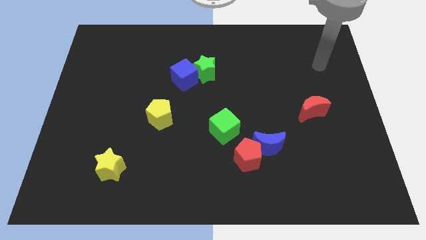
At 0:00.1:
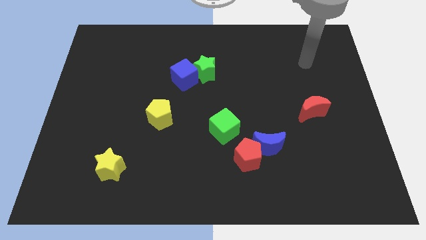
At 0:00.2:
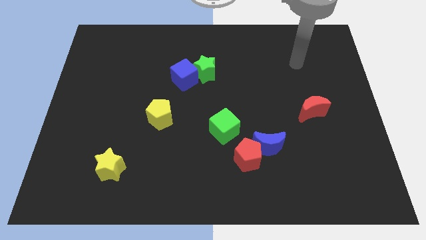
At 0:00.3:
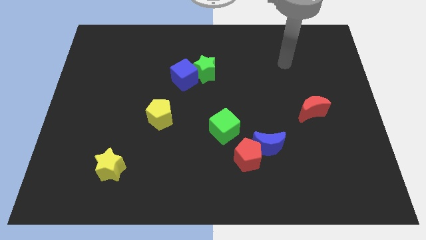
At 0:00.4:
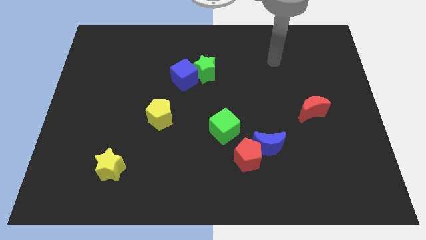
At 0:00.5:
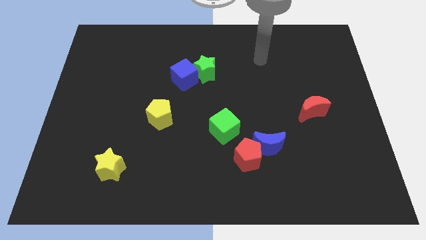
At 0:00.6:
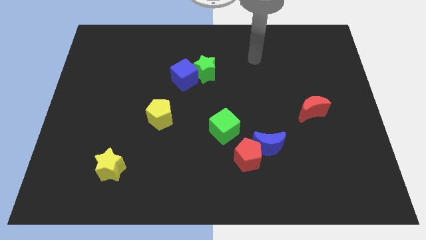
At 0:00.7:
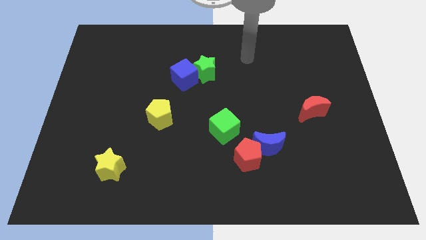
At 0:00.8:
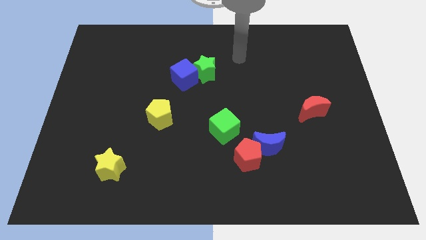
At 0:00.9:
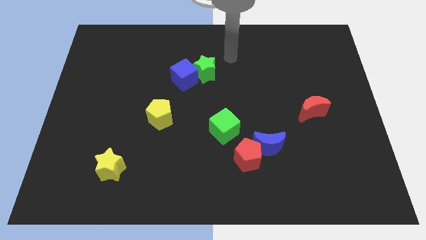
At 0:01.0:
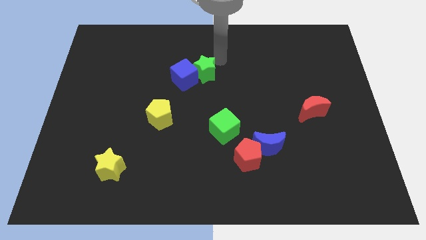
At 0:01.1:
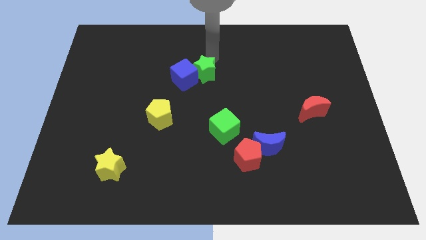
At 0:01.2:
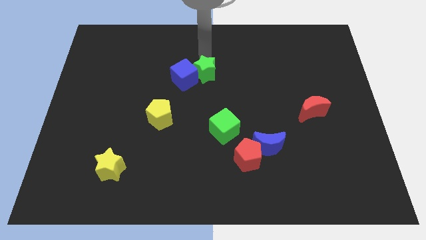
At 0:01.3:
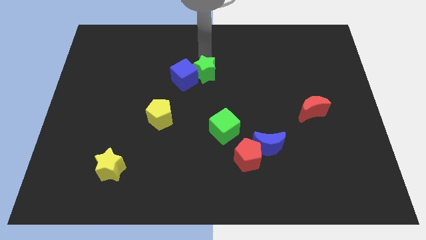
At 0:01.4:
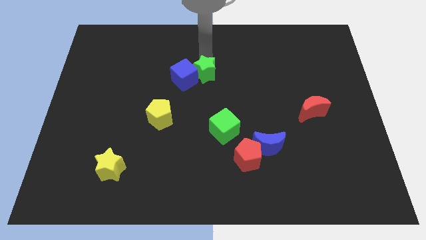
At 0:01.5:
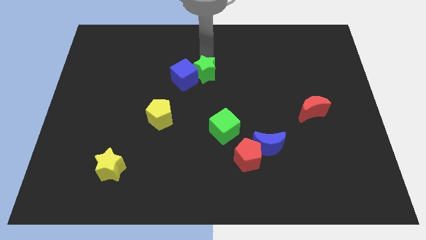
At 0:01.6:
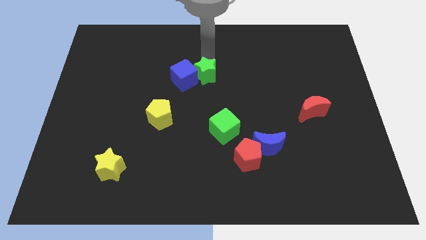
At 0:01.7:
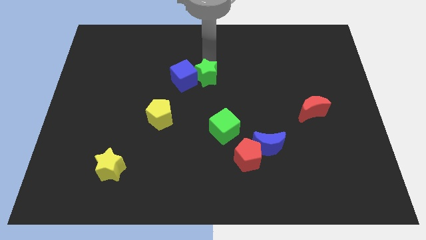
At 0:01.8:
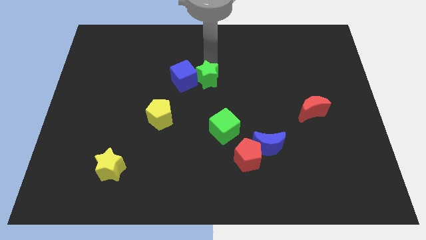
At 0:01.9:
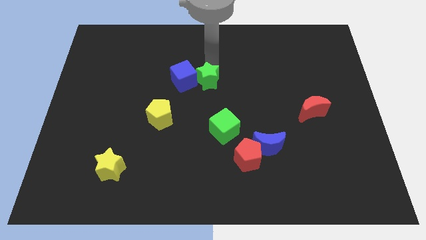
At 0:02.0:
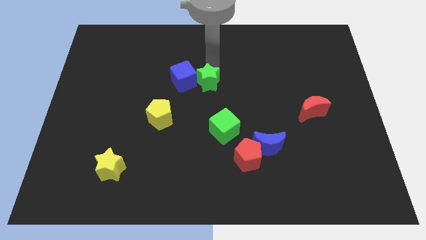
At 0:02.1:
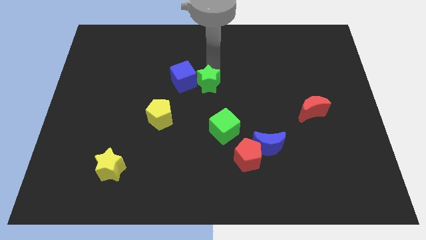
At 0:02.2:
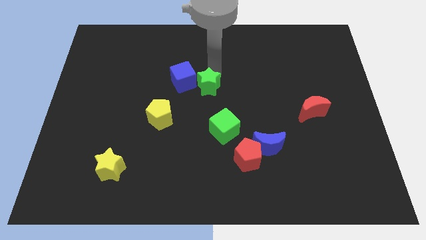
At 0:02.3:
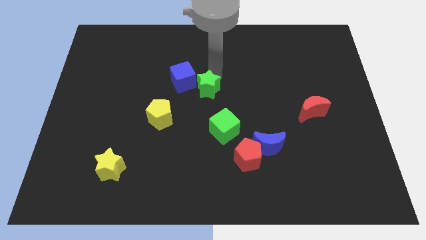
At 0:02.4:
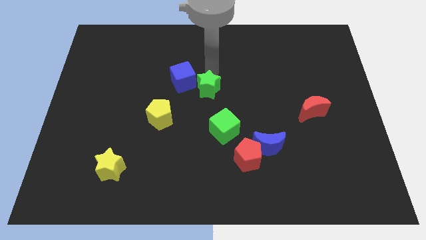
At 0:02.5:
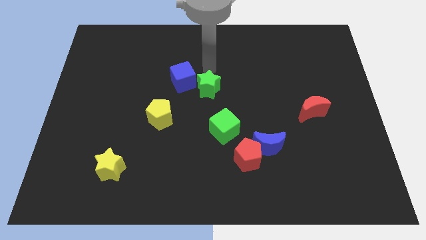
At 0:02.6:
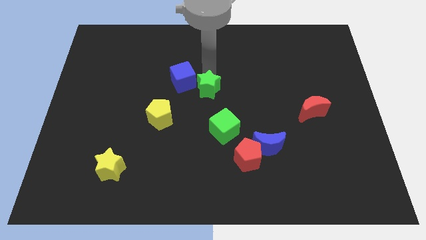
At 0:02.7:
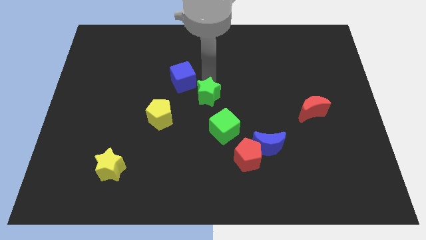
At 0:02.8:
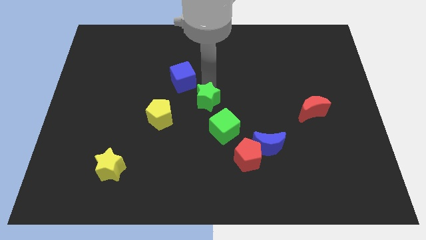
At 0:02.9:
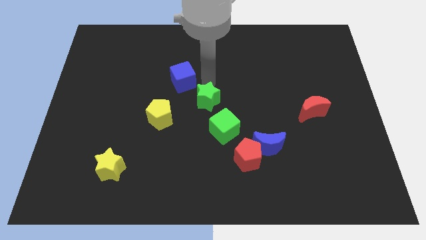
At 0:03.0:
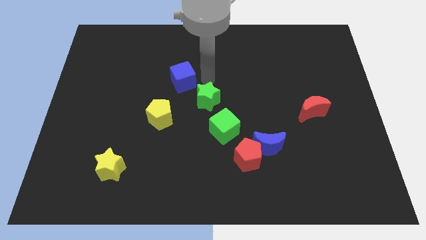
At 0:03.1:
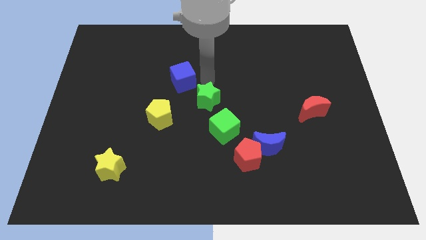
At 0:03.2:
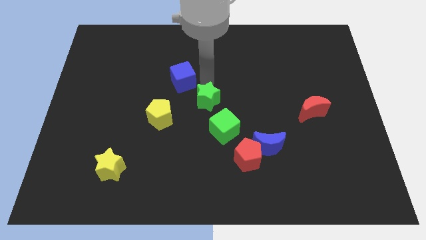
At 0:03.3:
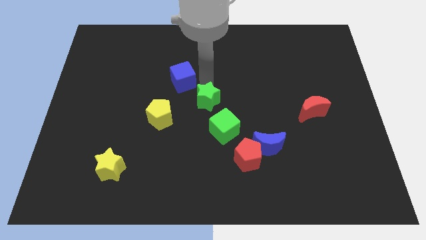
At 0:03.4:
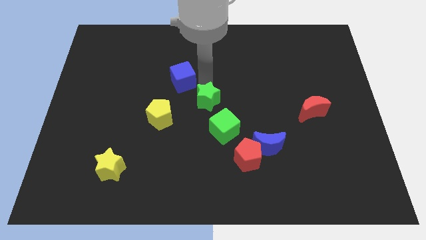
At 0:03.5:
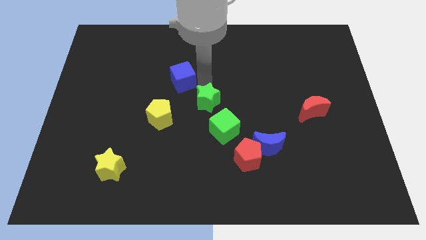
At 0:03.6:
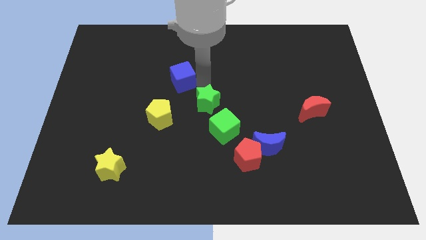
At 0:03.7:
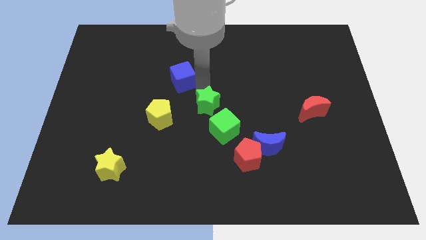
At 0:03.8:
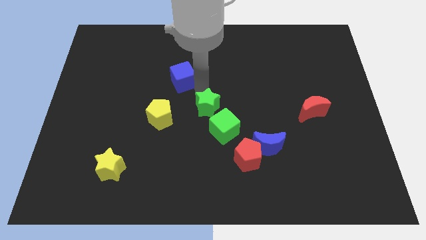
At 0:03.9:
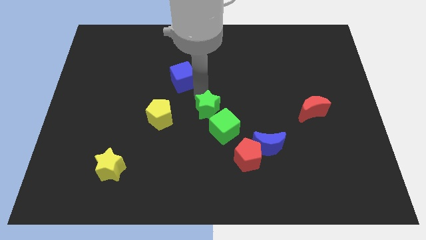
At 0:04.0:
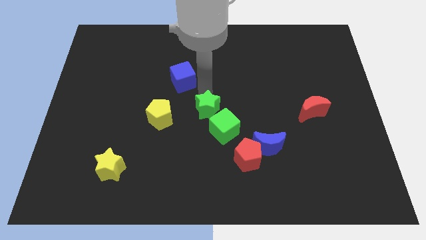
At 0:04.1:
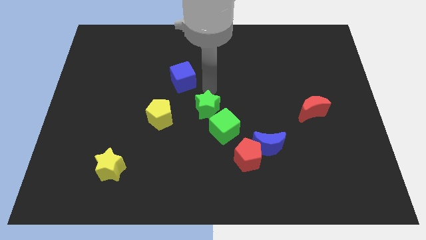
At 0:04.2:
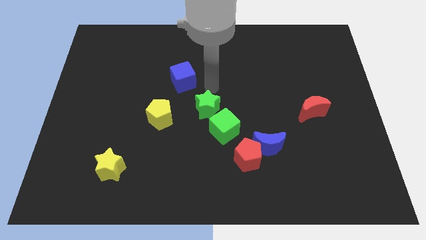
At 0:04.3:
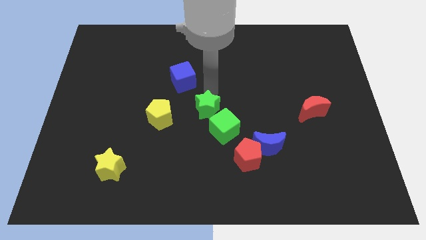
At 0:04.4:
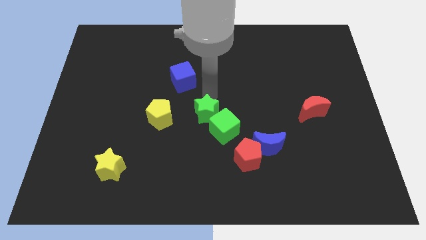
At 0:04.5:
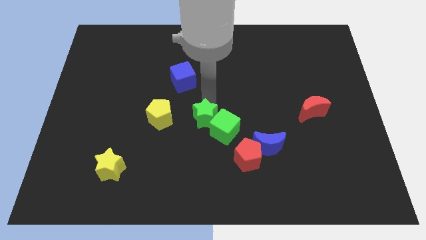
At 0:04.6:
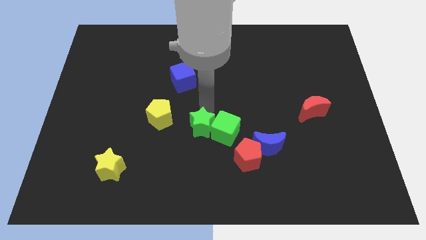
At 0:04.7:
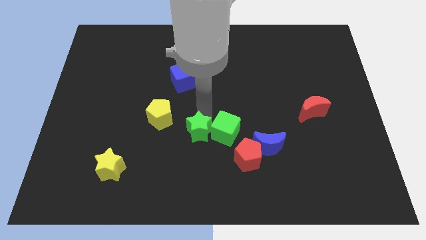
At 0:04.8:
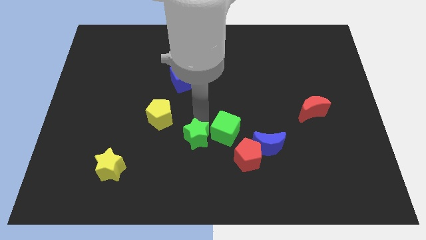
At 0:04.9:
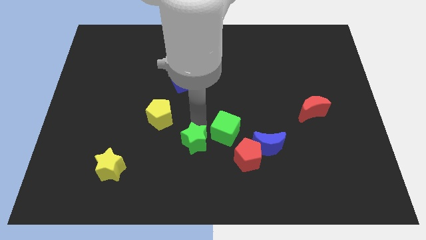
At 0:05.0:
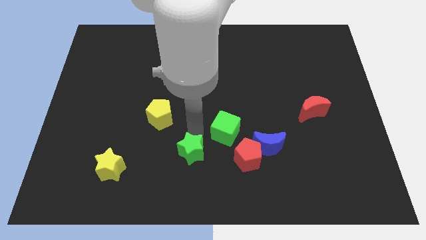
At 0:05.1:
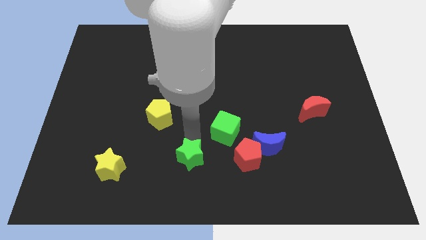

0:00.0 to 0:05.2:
put the green star to the bottom
